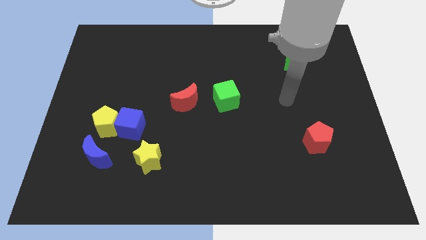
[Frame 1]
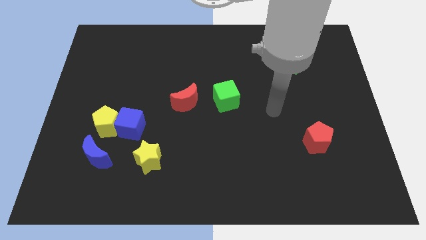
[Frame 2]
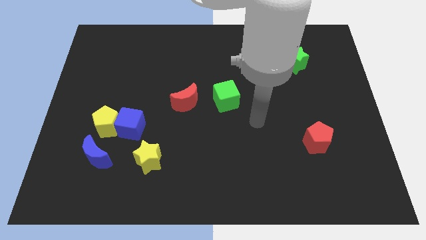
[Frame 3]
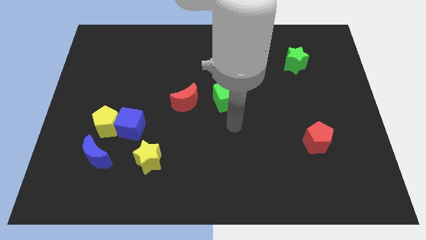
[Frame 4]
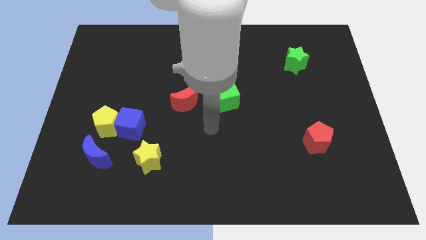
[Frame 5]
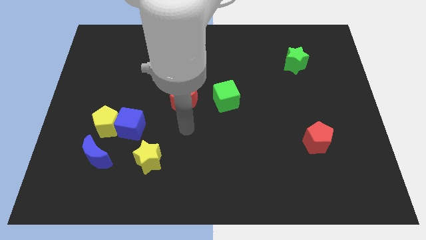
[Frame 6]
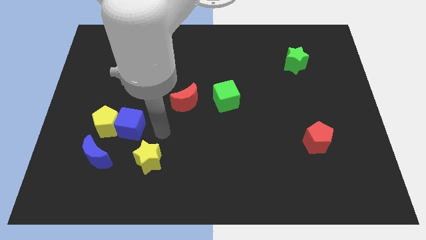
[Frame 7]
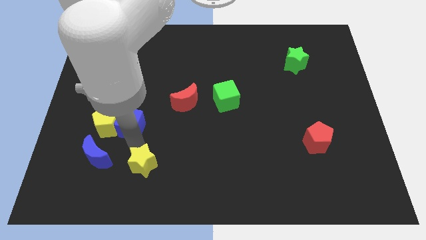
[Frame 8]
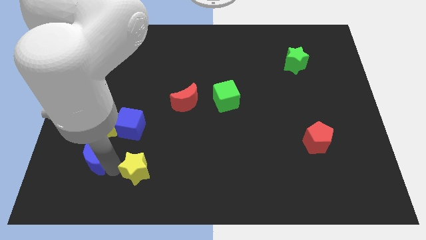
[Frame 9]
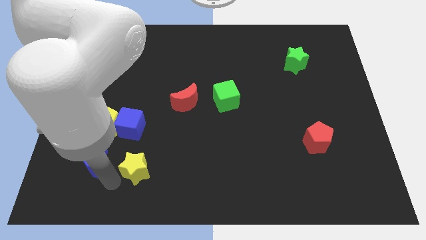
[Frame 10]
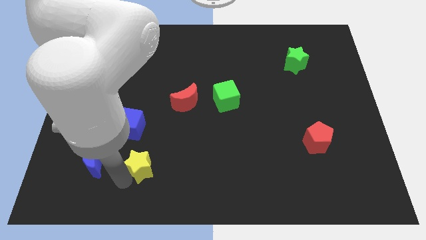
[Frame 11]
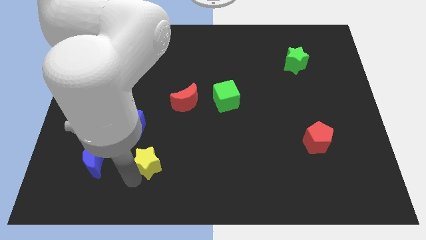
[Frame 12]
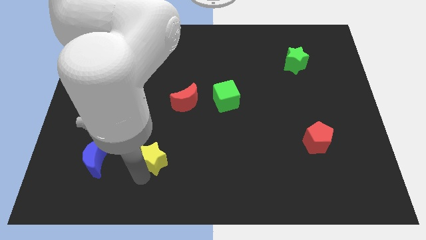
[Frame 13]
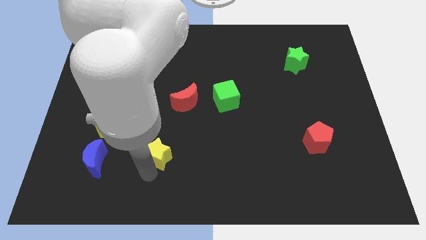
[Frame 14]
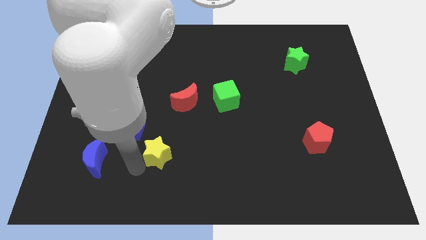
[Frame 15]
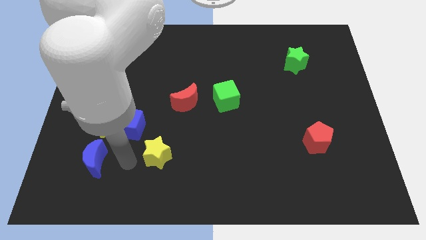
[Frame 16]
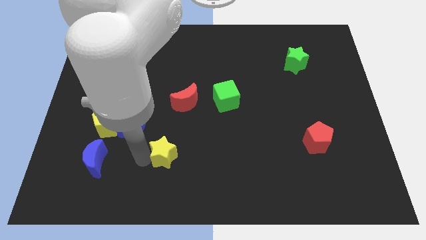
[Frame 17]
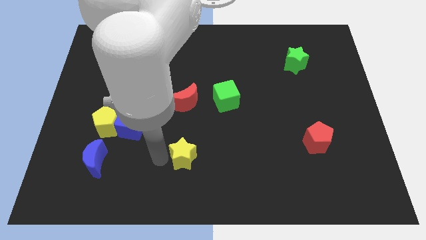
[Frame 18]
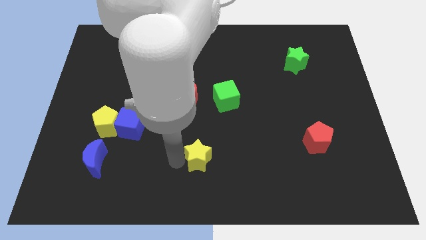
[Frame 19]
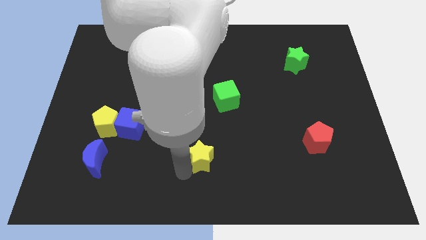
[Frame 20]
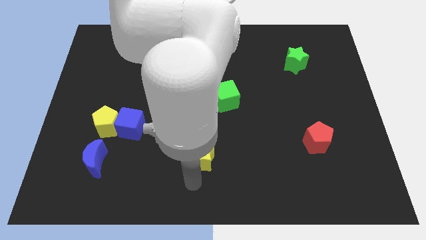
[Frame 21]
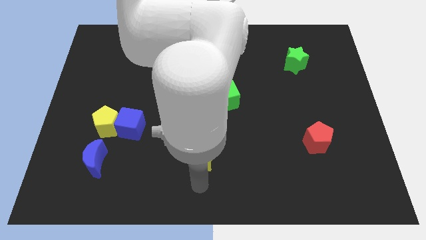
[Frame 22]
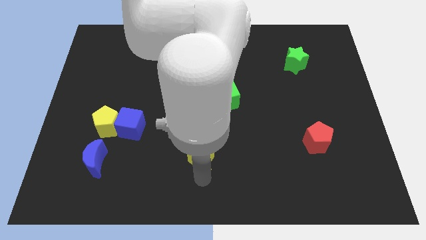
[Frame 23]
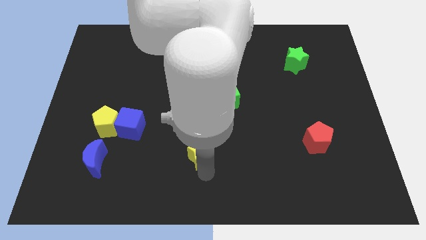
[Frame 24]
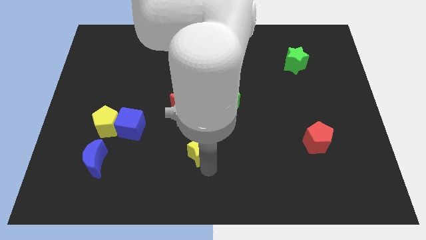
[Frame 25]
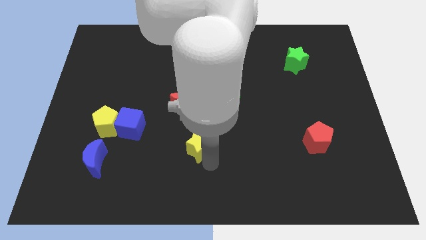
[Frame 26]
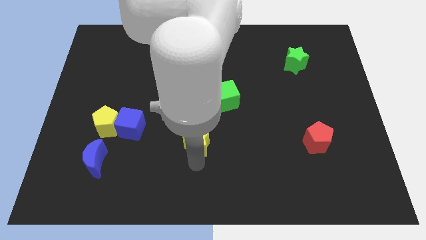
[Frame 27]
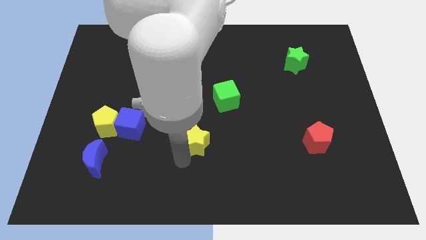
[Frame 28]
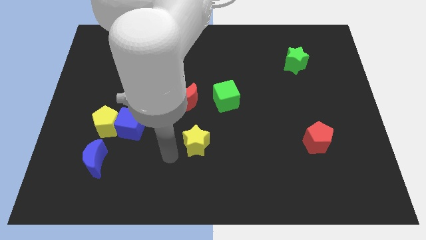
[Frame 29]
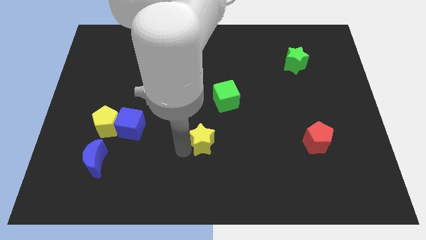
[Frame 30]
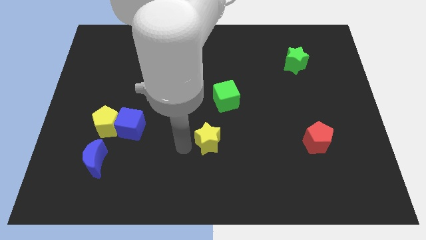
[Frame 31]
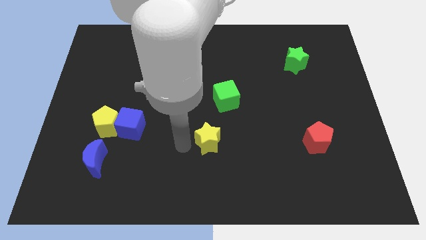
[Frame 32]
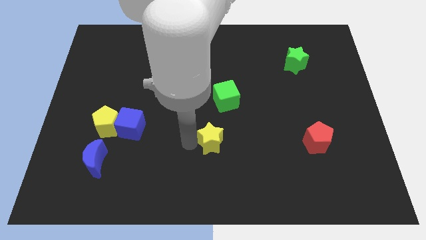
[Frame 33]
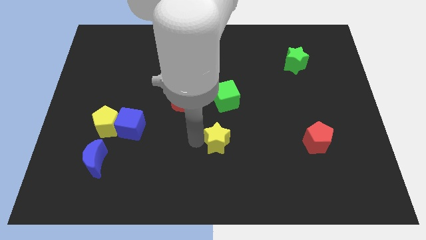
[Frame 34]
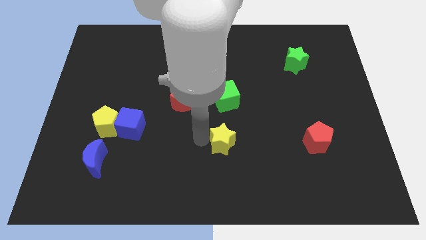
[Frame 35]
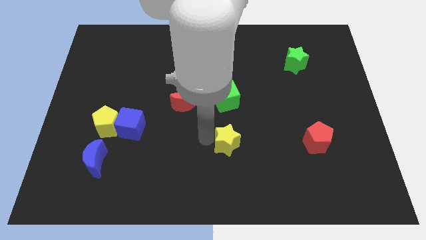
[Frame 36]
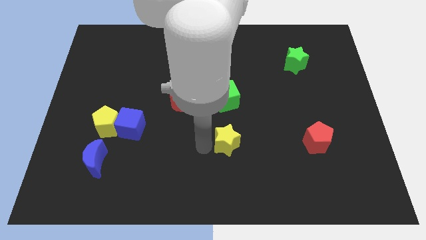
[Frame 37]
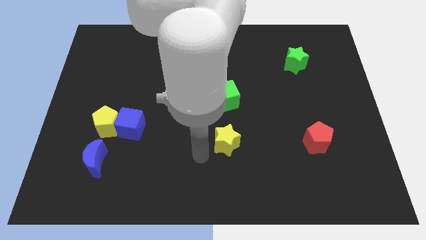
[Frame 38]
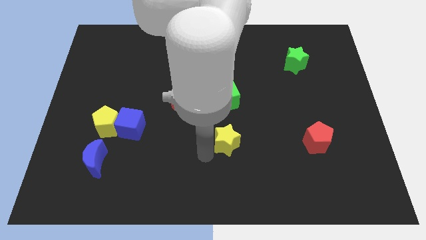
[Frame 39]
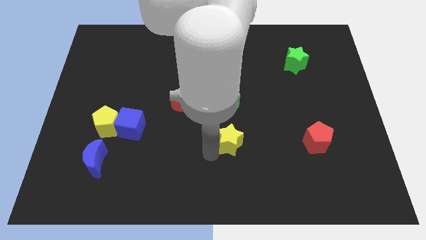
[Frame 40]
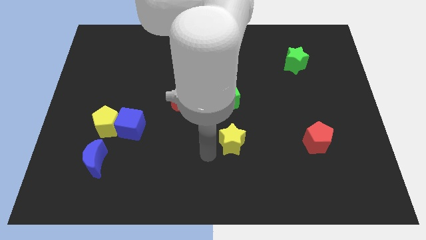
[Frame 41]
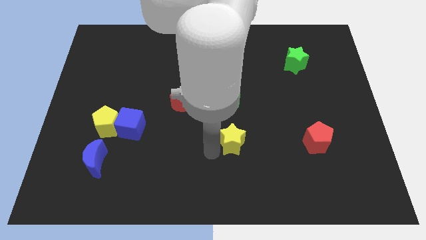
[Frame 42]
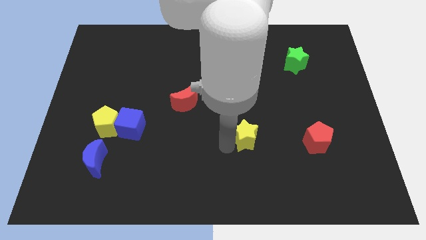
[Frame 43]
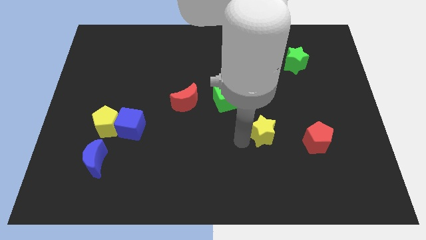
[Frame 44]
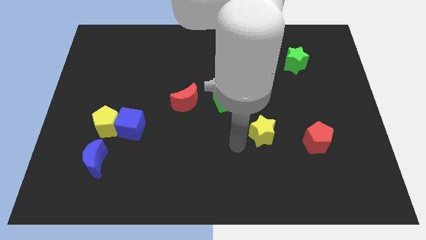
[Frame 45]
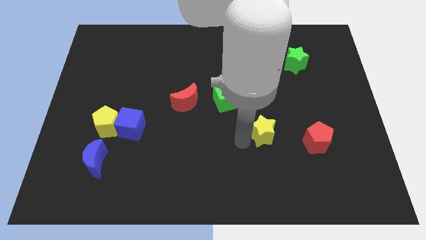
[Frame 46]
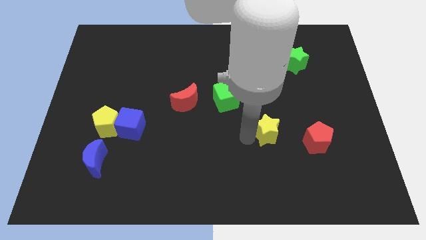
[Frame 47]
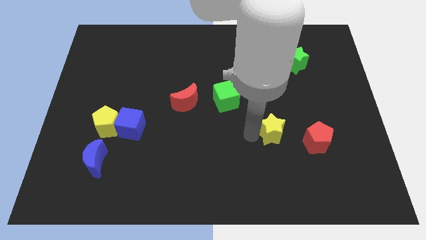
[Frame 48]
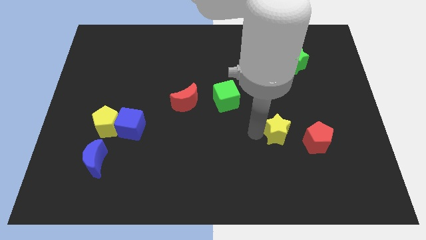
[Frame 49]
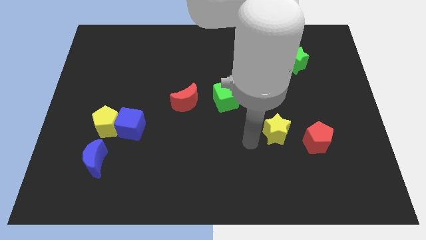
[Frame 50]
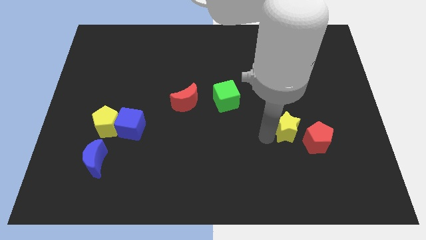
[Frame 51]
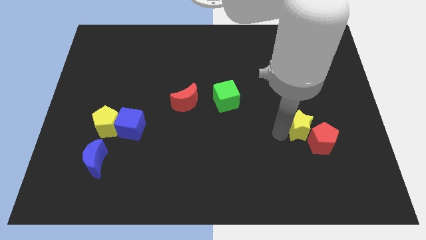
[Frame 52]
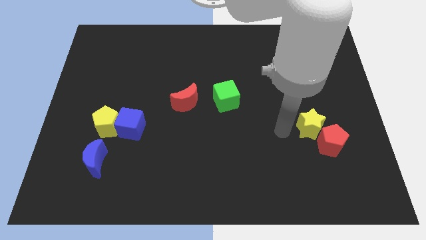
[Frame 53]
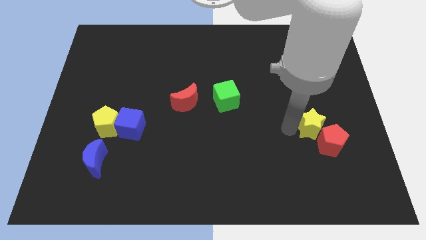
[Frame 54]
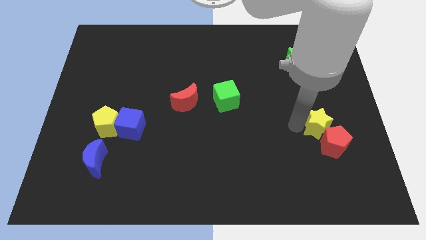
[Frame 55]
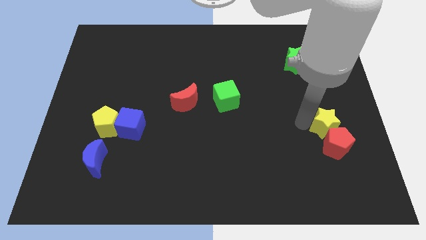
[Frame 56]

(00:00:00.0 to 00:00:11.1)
slide the yellow star diagonally up and to the right of the red pentagon

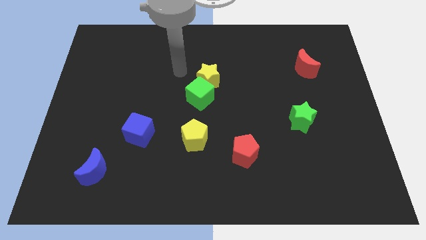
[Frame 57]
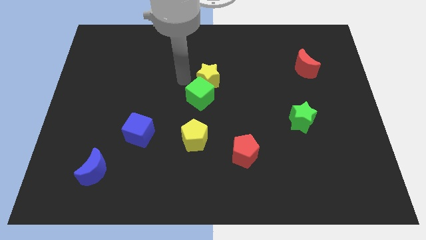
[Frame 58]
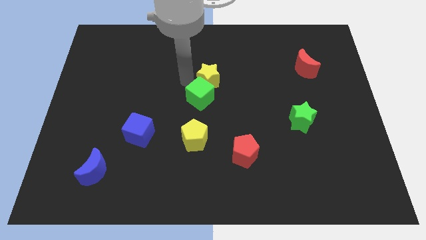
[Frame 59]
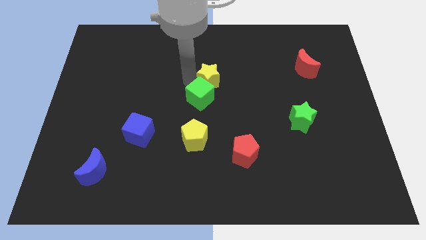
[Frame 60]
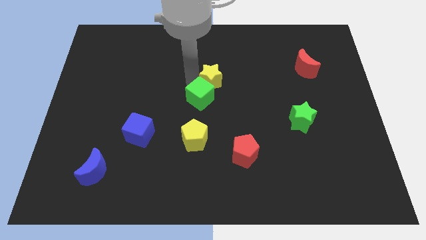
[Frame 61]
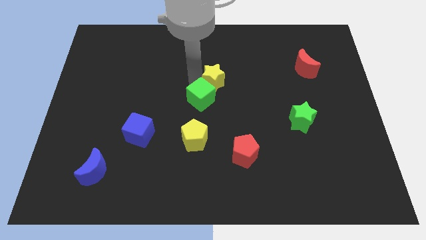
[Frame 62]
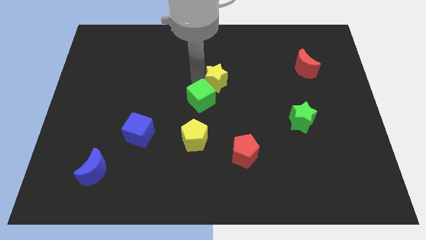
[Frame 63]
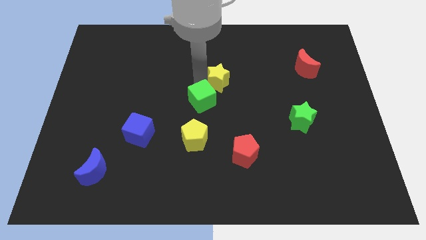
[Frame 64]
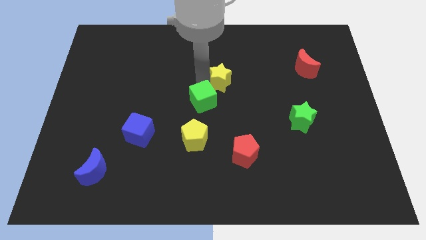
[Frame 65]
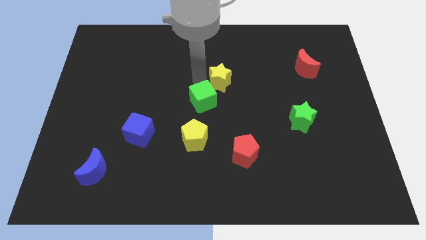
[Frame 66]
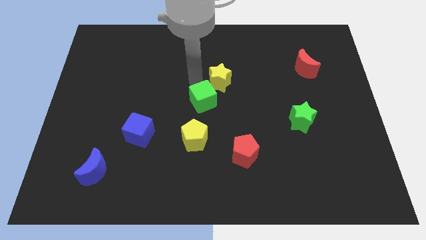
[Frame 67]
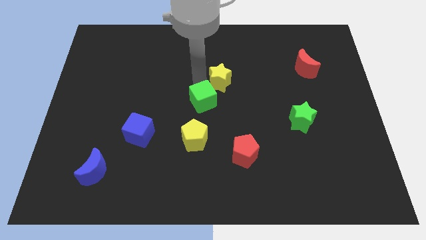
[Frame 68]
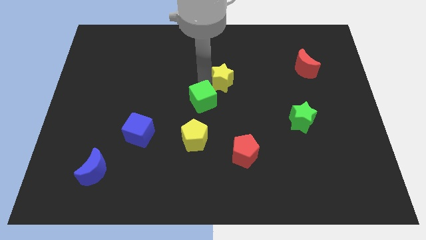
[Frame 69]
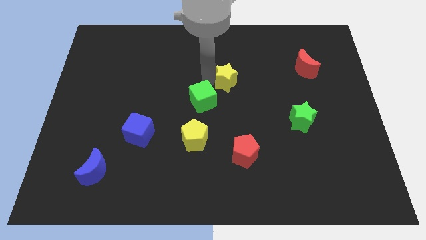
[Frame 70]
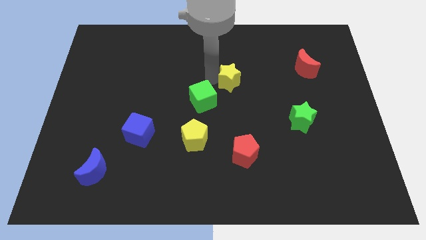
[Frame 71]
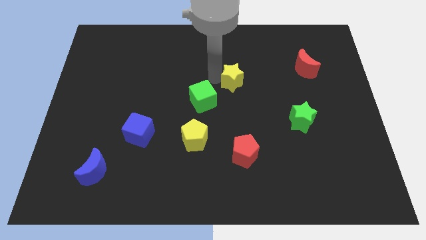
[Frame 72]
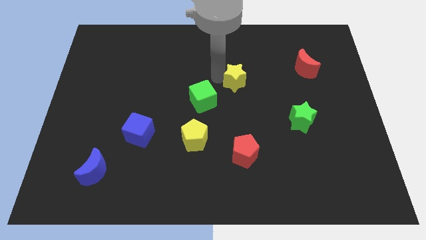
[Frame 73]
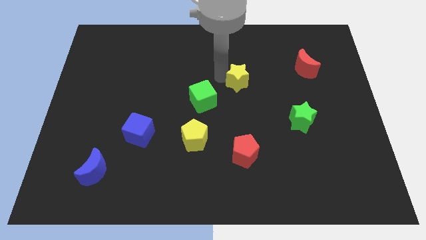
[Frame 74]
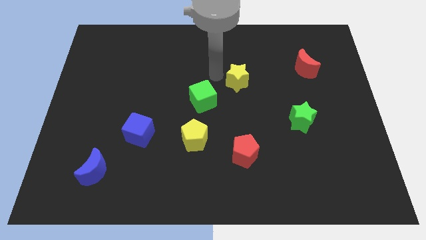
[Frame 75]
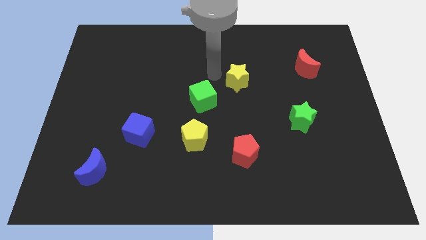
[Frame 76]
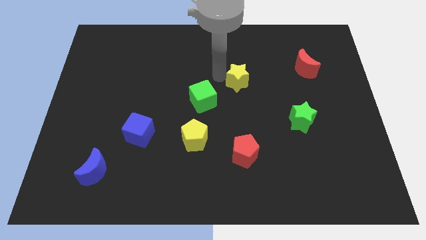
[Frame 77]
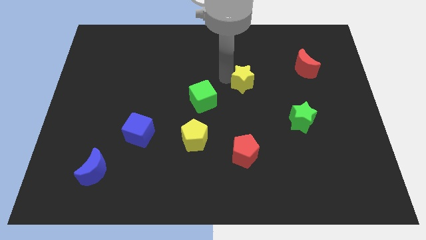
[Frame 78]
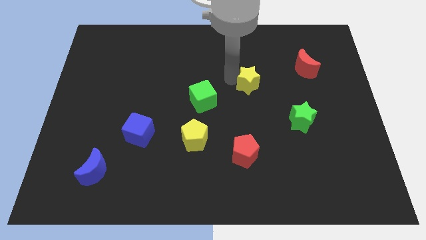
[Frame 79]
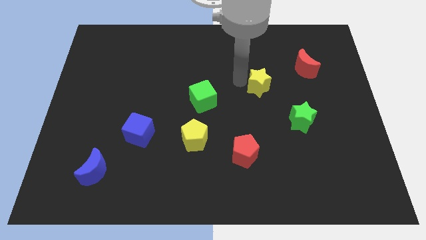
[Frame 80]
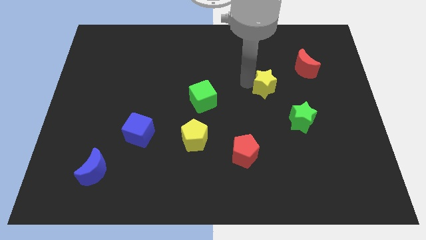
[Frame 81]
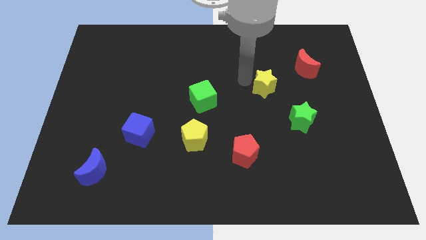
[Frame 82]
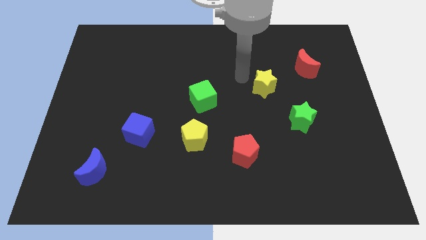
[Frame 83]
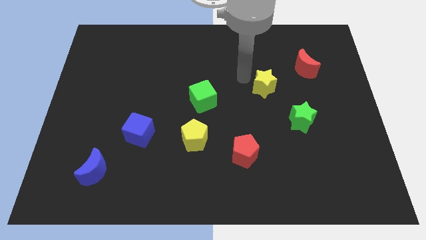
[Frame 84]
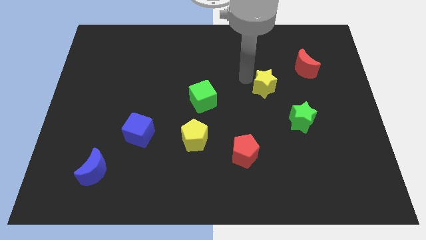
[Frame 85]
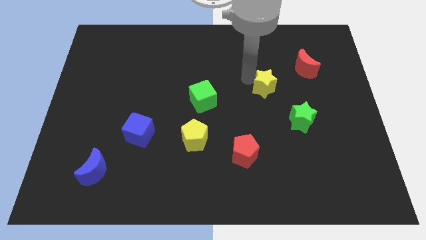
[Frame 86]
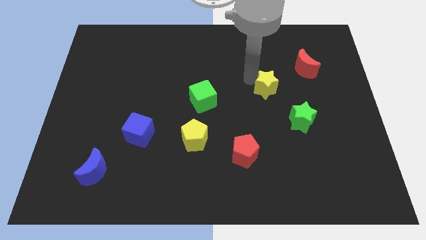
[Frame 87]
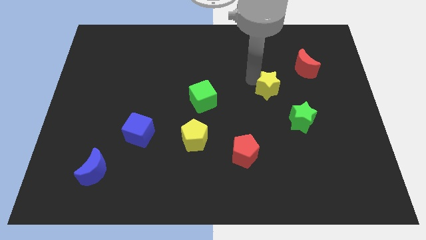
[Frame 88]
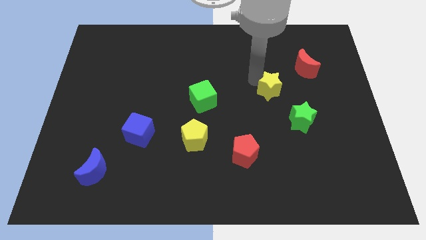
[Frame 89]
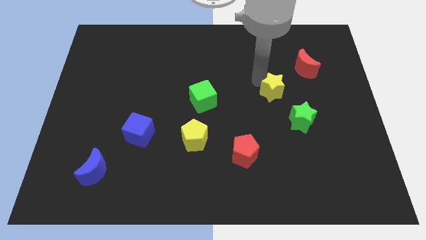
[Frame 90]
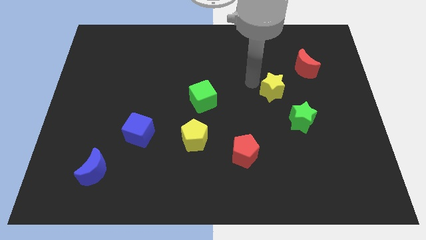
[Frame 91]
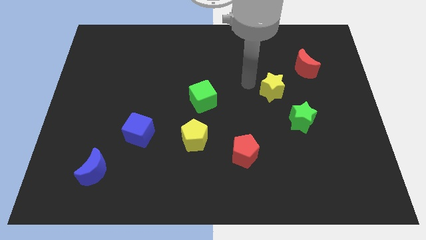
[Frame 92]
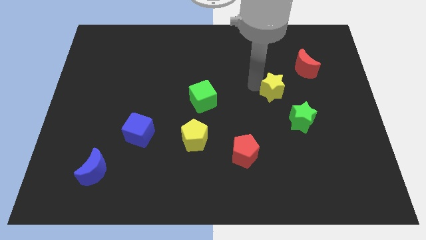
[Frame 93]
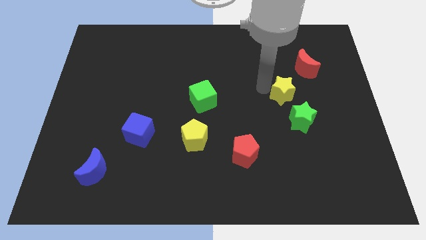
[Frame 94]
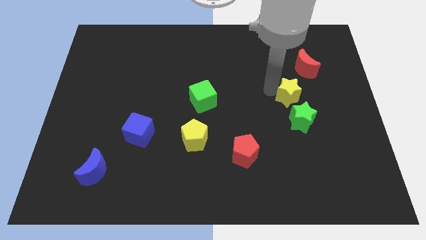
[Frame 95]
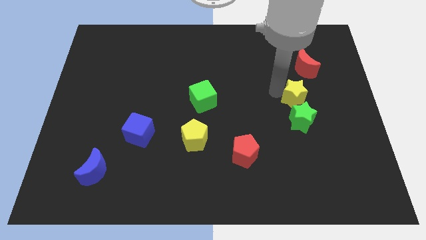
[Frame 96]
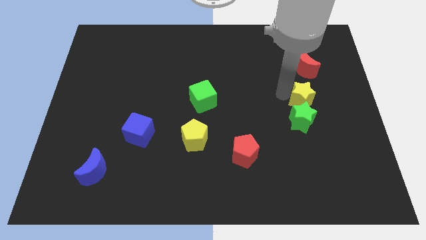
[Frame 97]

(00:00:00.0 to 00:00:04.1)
move the yellow star to the top right side of the green star
